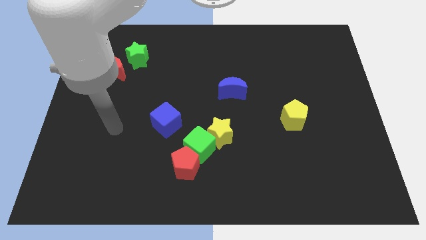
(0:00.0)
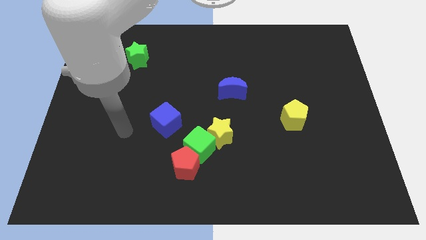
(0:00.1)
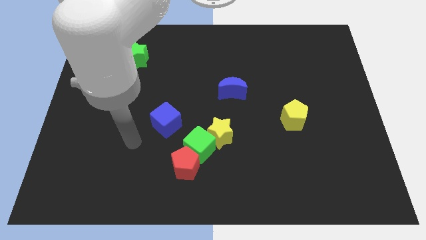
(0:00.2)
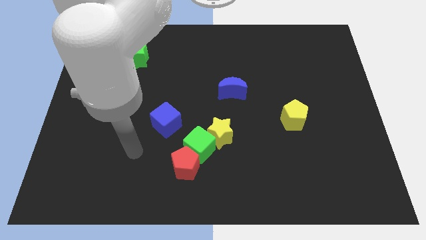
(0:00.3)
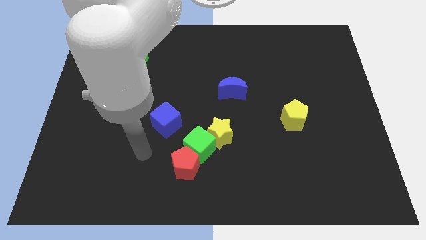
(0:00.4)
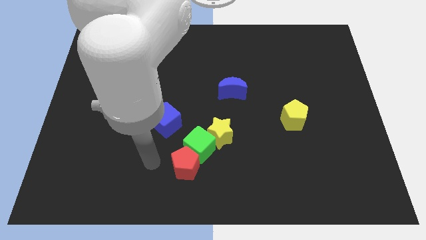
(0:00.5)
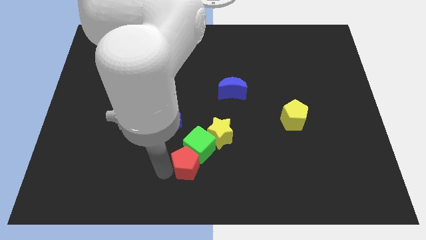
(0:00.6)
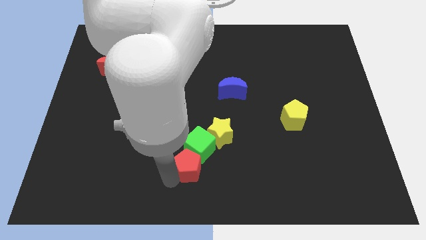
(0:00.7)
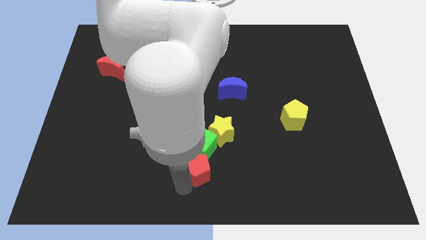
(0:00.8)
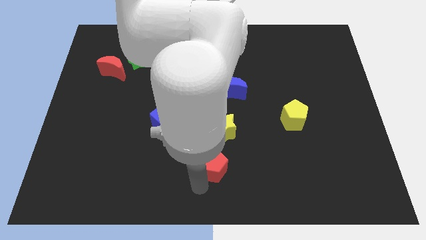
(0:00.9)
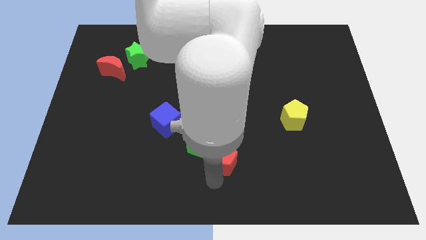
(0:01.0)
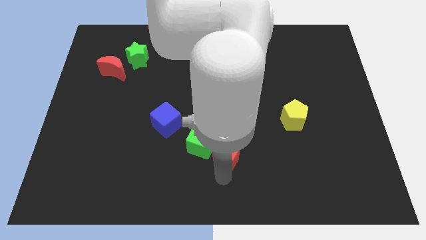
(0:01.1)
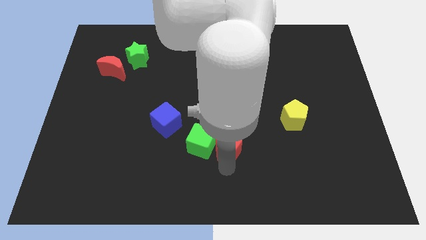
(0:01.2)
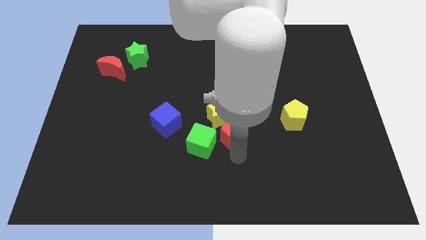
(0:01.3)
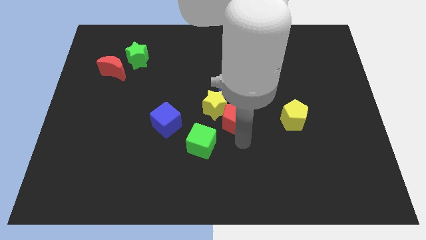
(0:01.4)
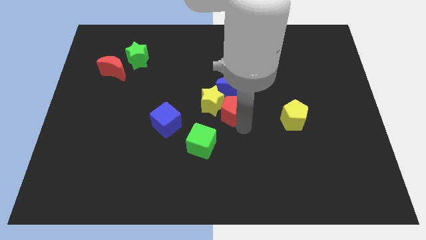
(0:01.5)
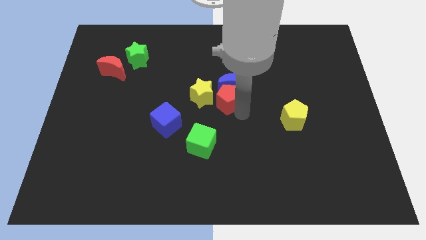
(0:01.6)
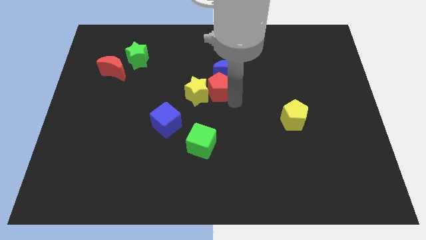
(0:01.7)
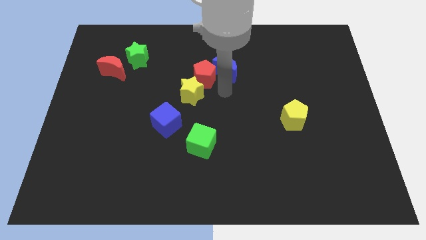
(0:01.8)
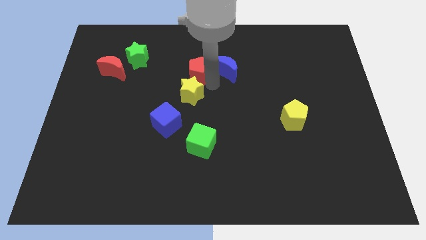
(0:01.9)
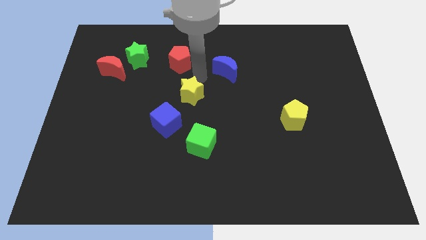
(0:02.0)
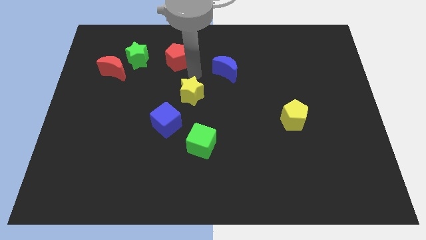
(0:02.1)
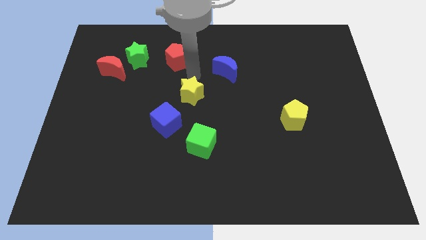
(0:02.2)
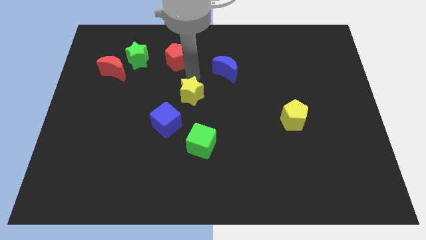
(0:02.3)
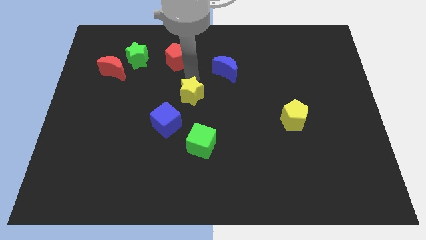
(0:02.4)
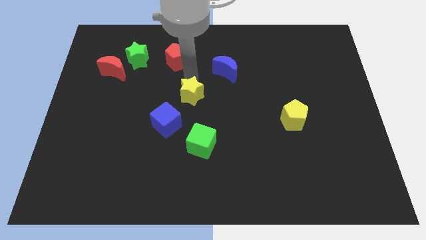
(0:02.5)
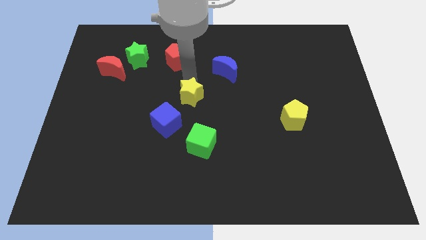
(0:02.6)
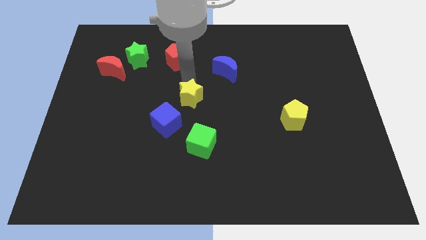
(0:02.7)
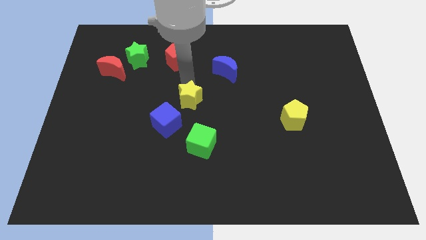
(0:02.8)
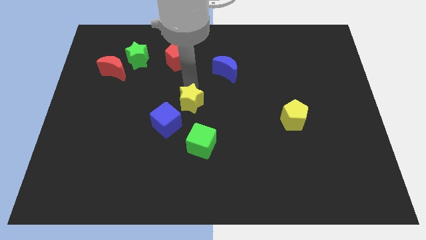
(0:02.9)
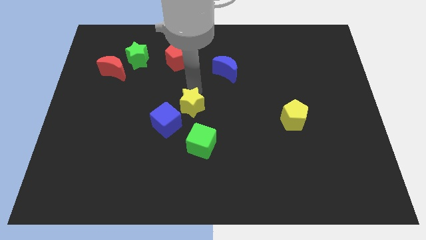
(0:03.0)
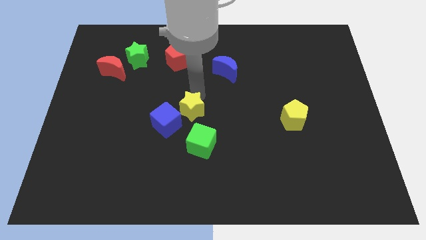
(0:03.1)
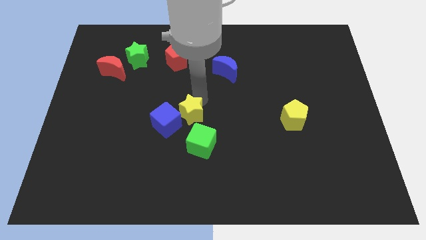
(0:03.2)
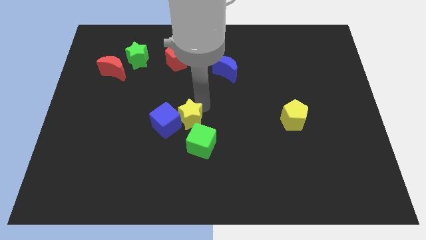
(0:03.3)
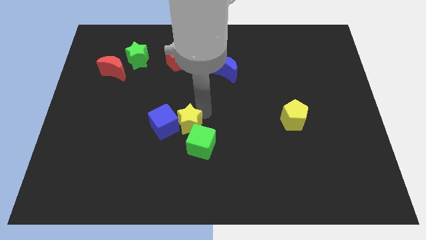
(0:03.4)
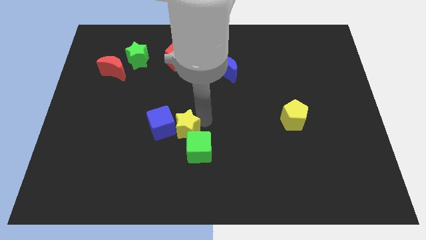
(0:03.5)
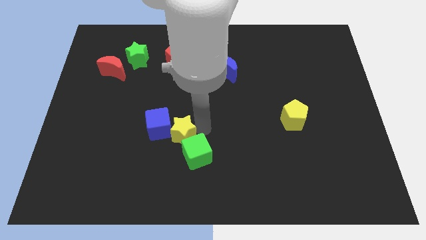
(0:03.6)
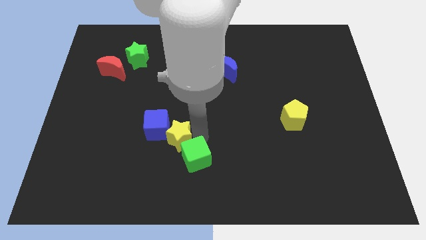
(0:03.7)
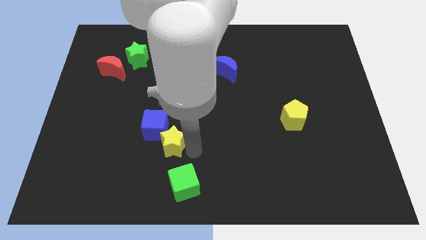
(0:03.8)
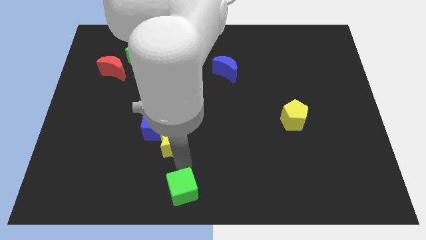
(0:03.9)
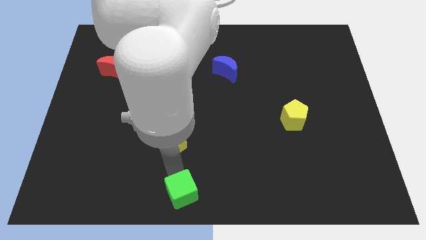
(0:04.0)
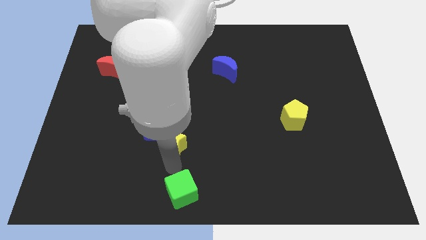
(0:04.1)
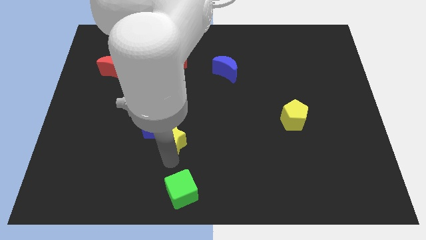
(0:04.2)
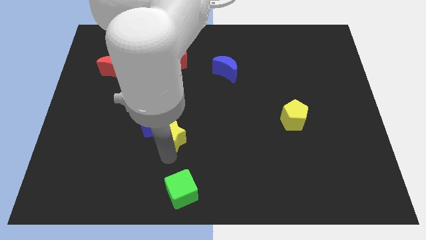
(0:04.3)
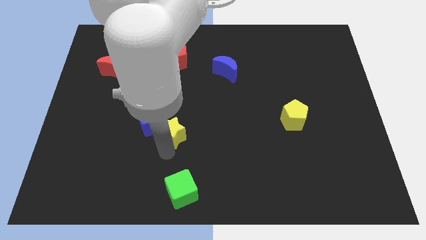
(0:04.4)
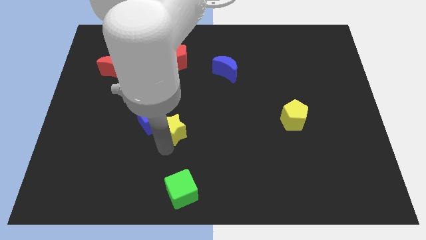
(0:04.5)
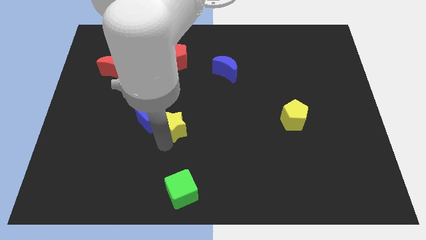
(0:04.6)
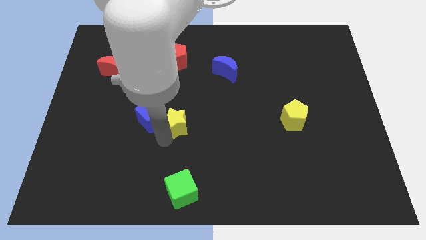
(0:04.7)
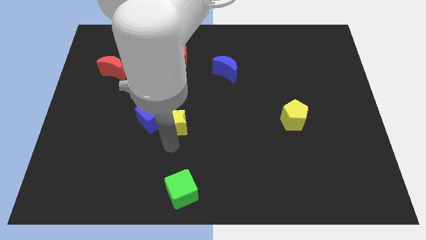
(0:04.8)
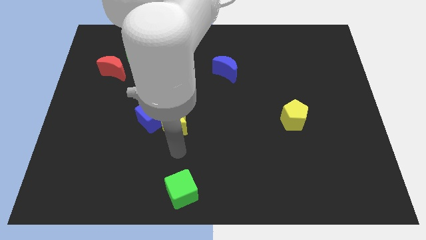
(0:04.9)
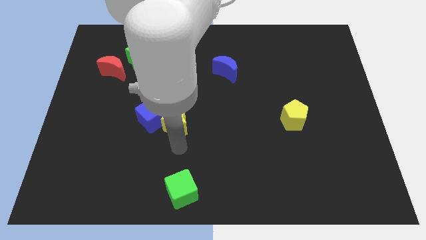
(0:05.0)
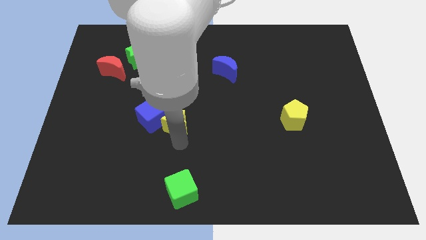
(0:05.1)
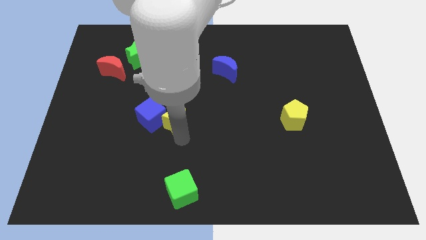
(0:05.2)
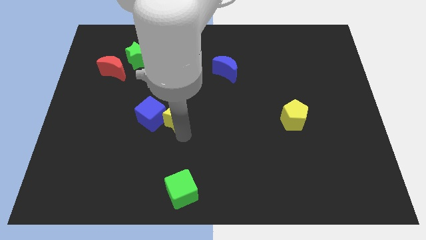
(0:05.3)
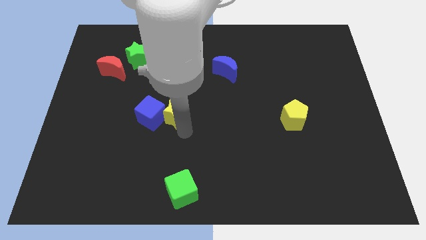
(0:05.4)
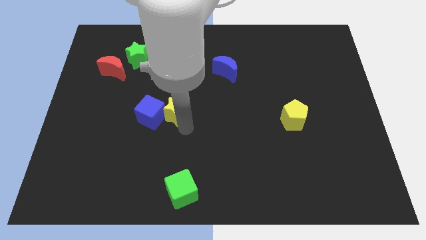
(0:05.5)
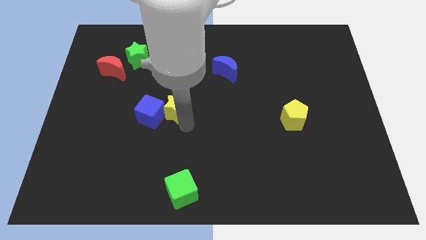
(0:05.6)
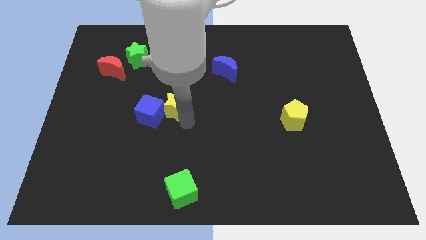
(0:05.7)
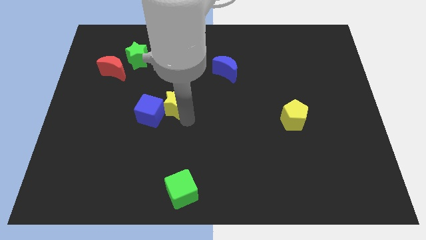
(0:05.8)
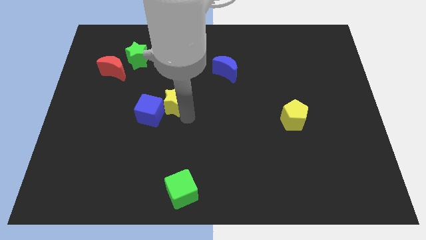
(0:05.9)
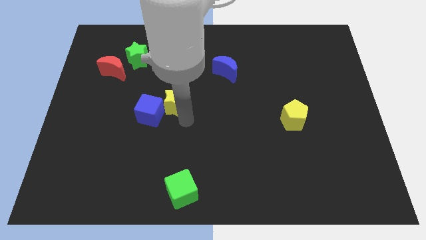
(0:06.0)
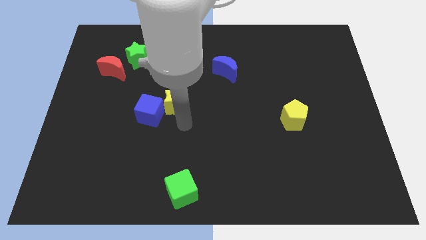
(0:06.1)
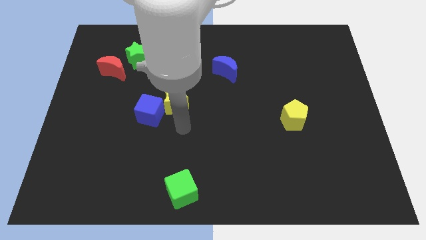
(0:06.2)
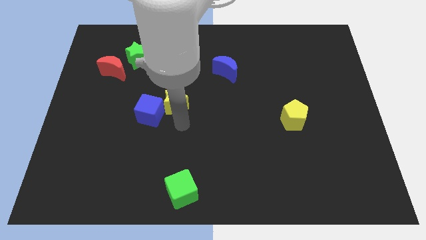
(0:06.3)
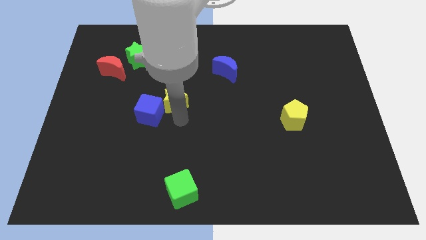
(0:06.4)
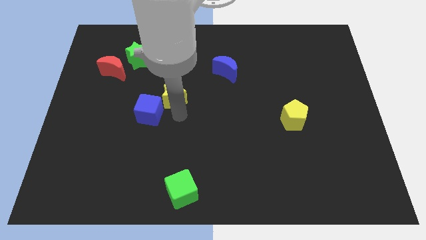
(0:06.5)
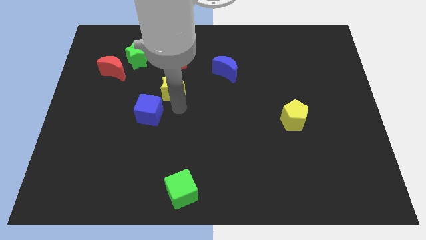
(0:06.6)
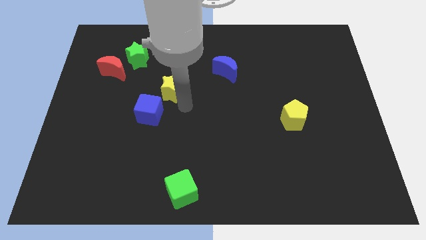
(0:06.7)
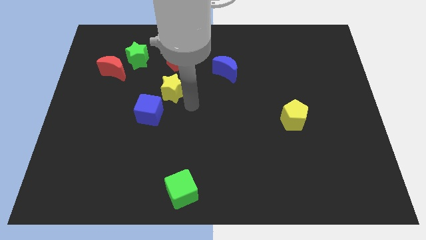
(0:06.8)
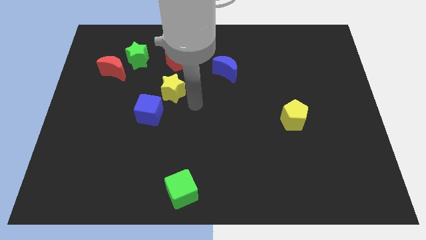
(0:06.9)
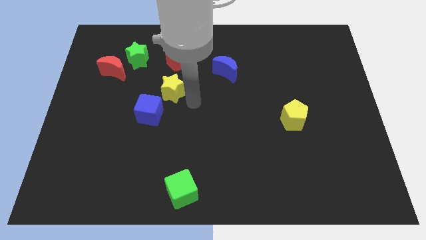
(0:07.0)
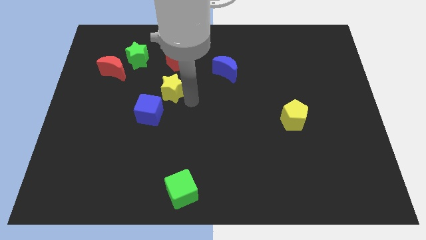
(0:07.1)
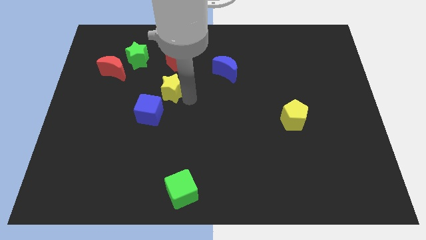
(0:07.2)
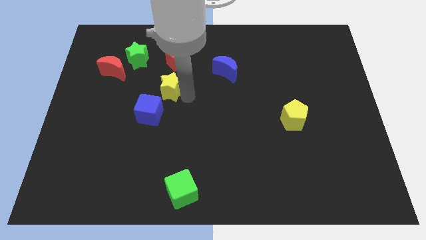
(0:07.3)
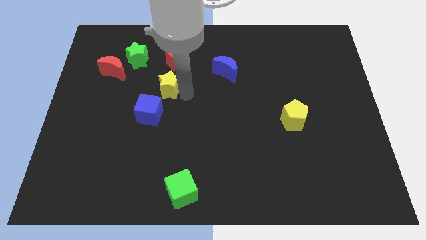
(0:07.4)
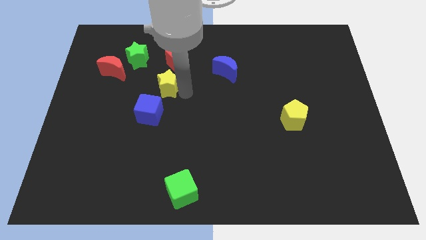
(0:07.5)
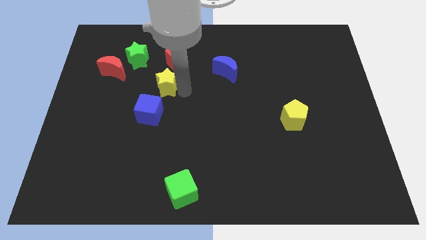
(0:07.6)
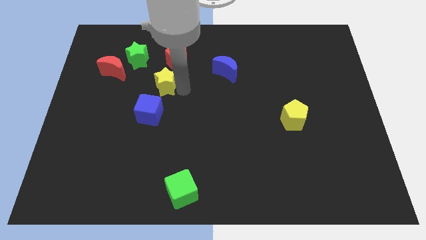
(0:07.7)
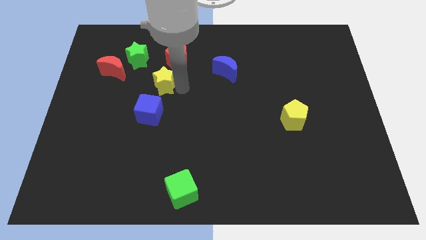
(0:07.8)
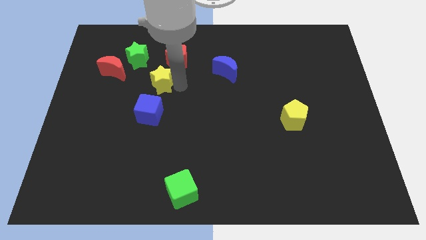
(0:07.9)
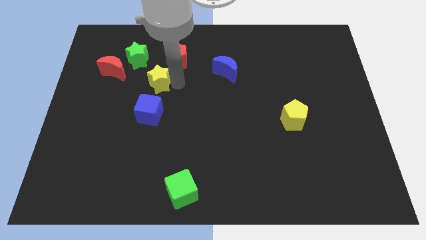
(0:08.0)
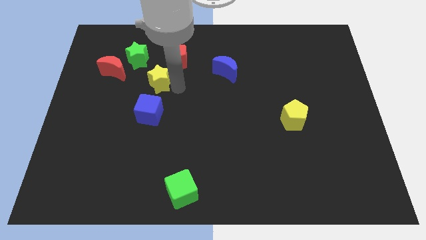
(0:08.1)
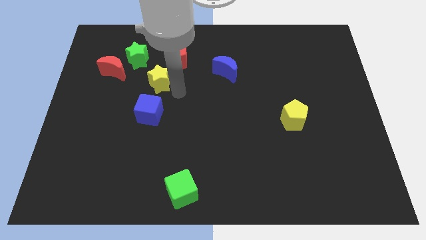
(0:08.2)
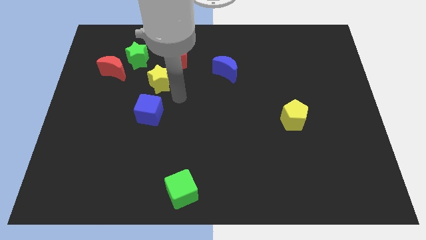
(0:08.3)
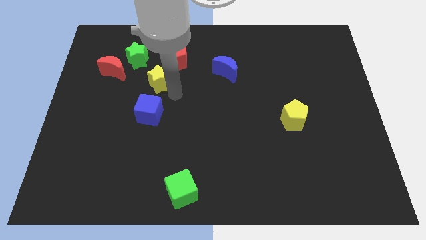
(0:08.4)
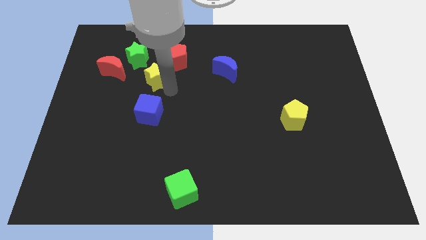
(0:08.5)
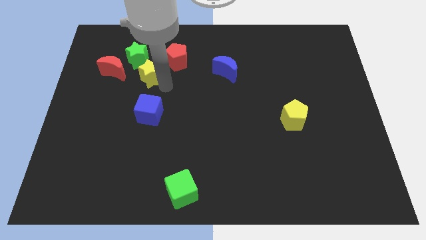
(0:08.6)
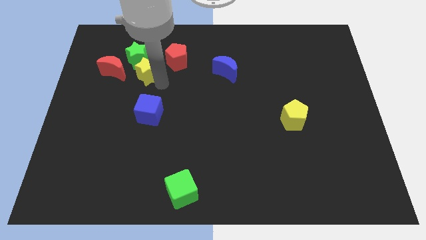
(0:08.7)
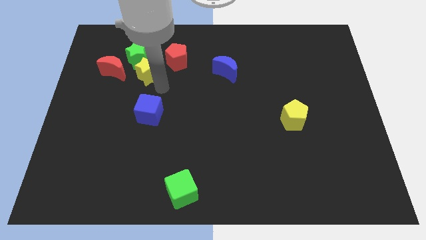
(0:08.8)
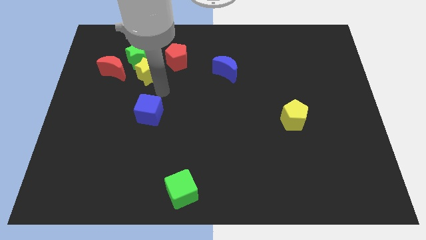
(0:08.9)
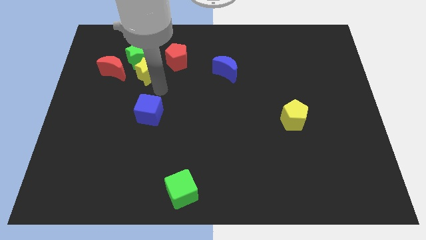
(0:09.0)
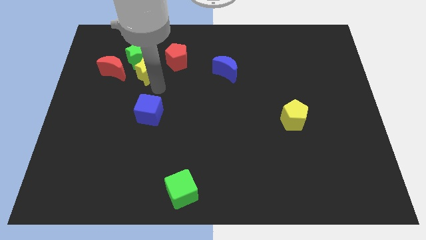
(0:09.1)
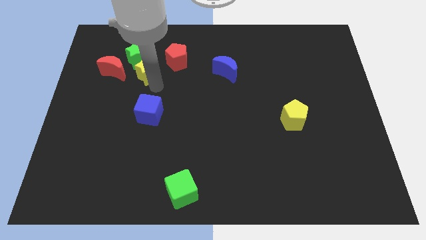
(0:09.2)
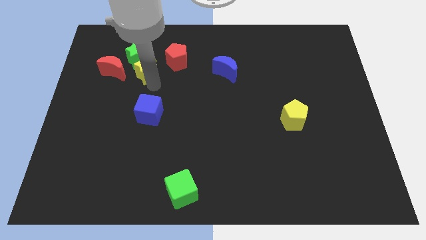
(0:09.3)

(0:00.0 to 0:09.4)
slide the yellow star next to the green star
